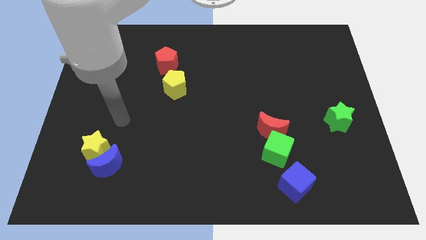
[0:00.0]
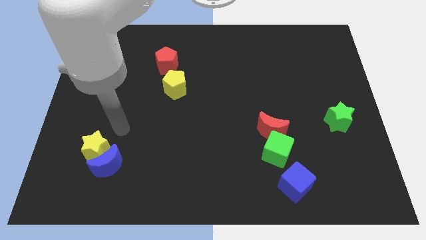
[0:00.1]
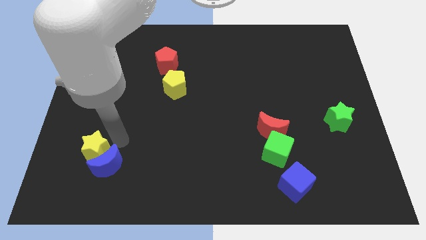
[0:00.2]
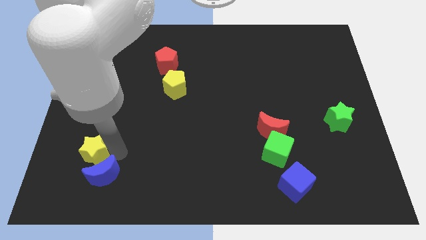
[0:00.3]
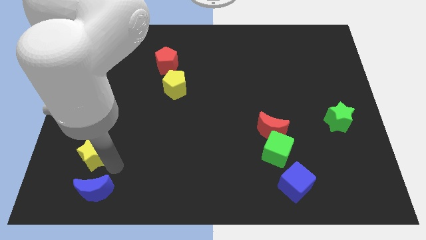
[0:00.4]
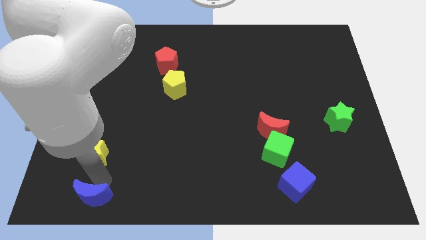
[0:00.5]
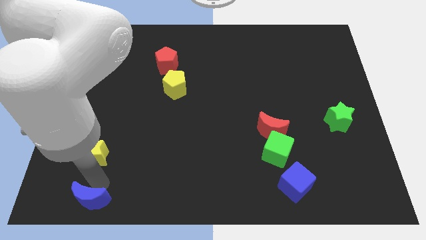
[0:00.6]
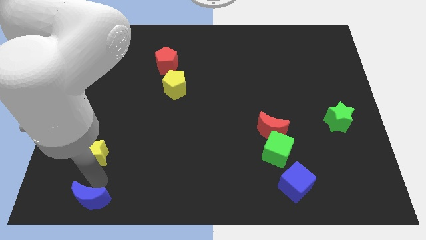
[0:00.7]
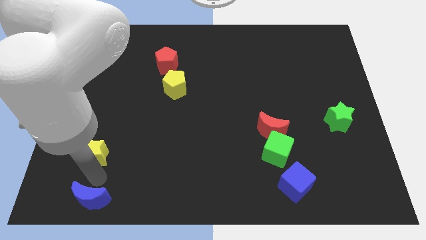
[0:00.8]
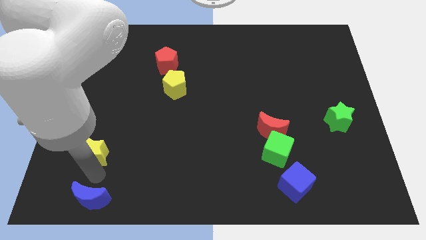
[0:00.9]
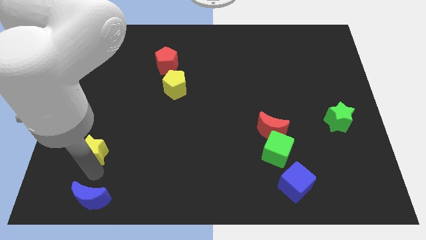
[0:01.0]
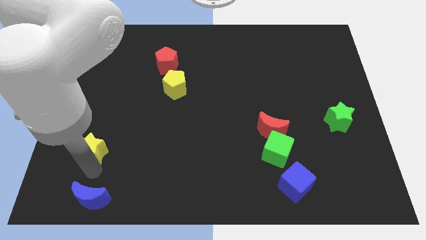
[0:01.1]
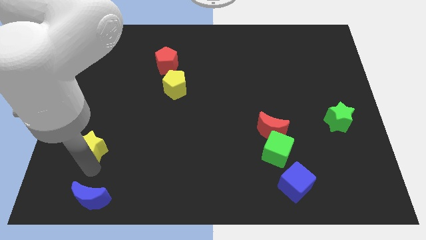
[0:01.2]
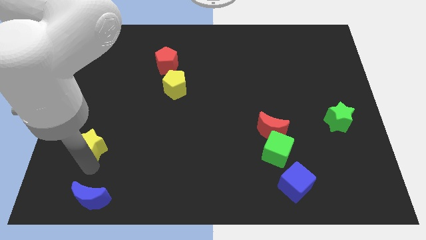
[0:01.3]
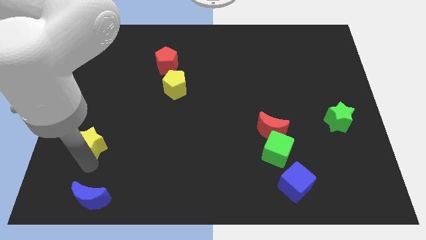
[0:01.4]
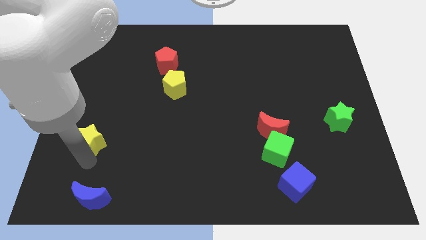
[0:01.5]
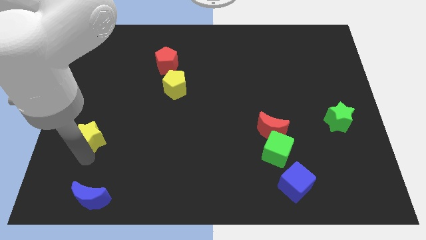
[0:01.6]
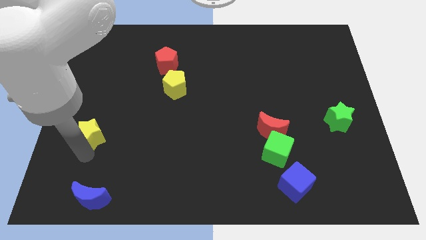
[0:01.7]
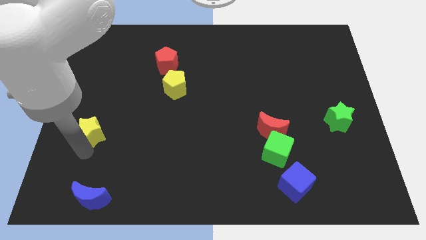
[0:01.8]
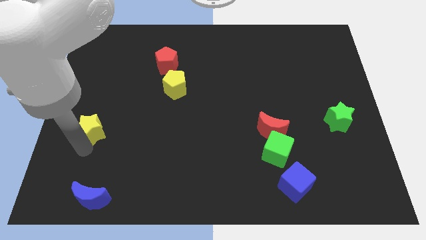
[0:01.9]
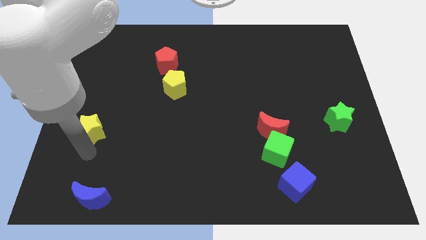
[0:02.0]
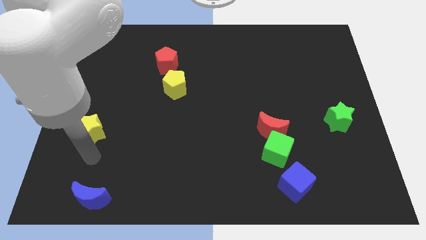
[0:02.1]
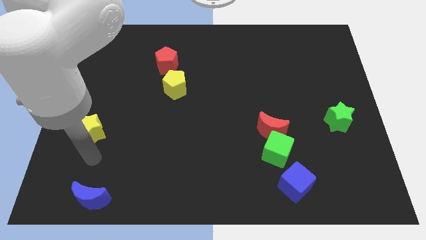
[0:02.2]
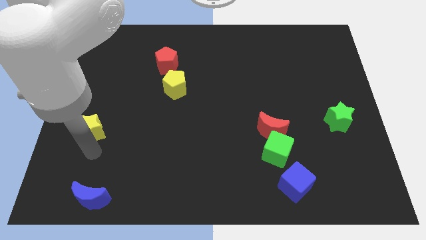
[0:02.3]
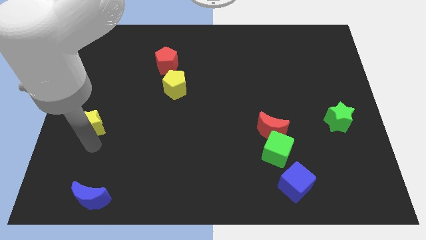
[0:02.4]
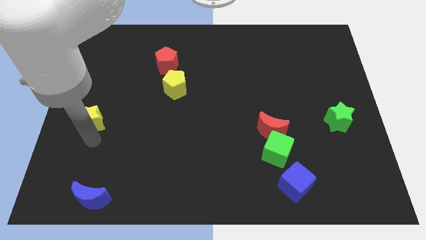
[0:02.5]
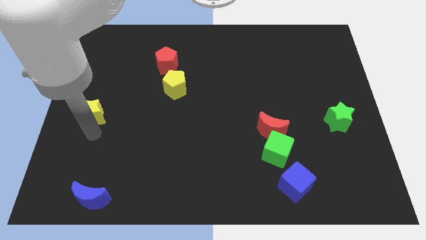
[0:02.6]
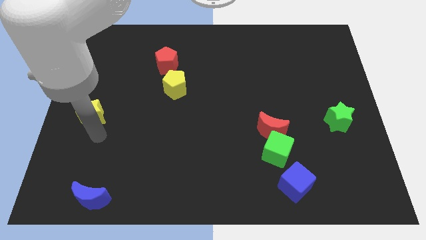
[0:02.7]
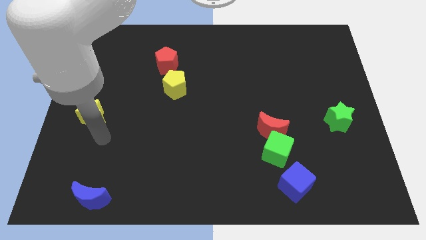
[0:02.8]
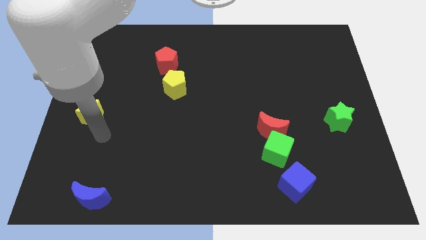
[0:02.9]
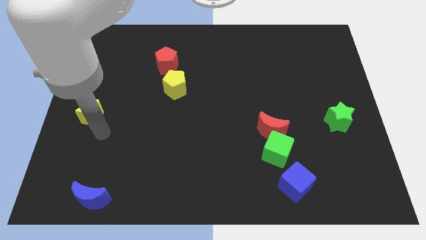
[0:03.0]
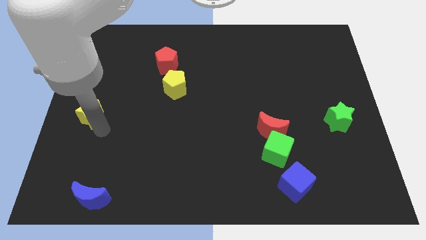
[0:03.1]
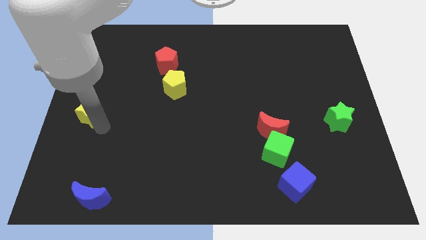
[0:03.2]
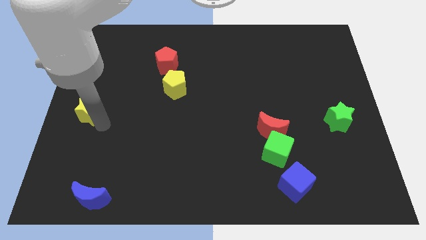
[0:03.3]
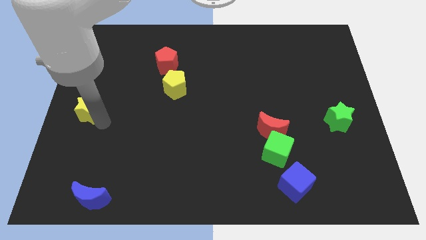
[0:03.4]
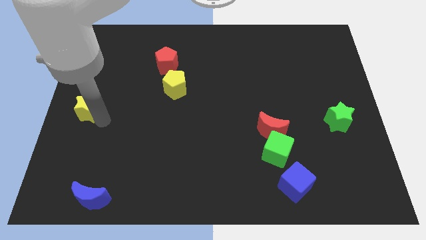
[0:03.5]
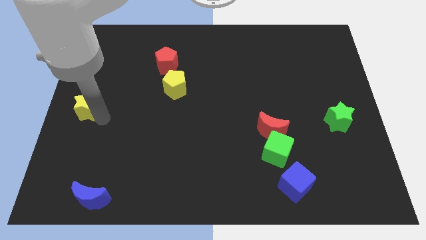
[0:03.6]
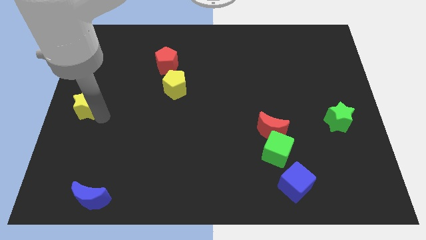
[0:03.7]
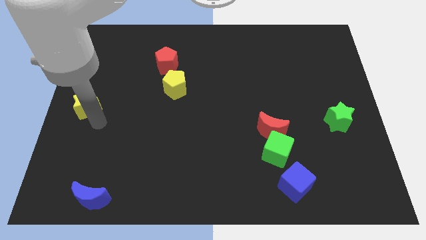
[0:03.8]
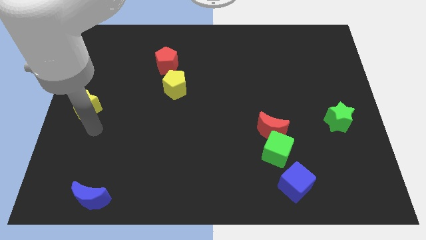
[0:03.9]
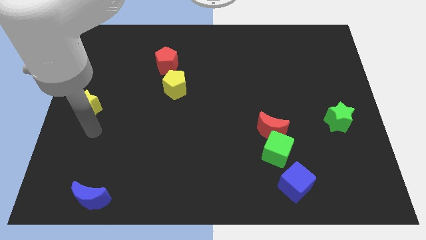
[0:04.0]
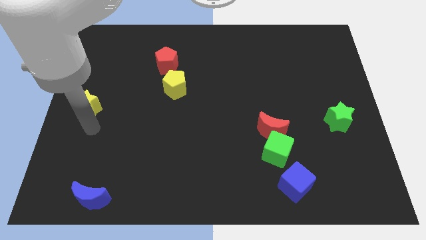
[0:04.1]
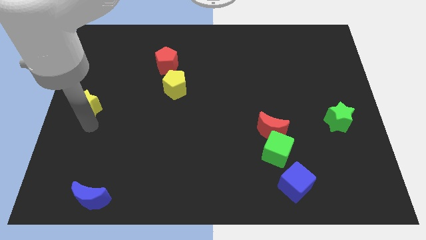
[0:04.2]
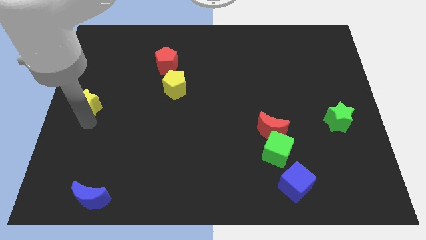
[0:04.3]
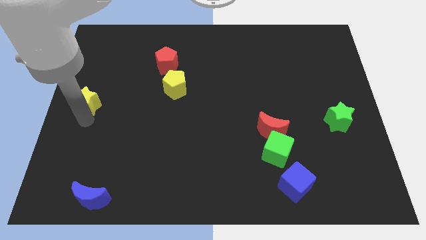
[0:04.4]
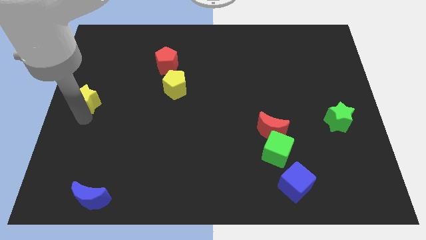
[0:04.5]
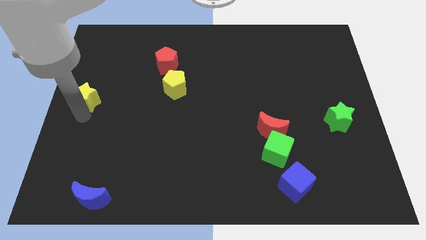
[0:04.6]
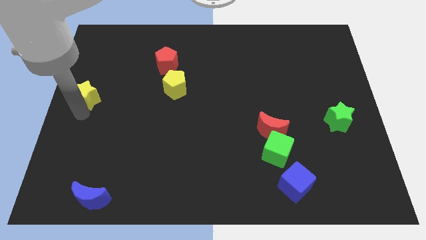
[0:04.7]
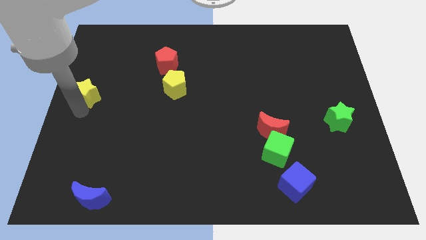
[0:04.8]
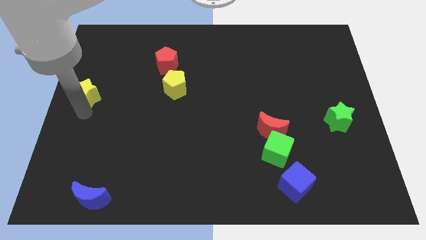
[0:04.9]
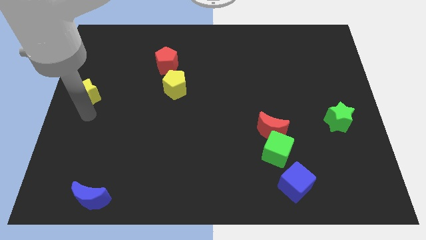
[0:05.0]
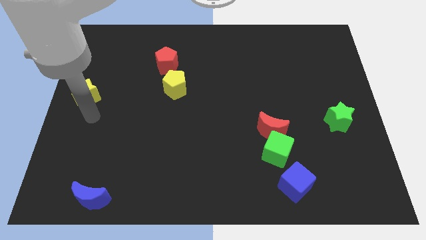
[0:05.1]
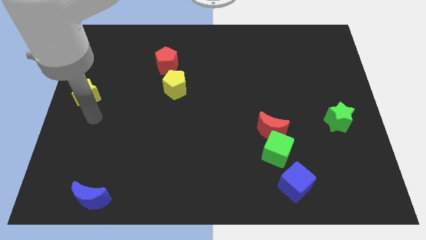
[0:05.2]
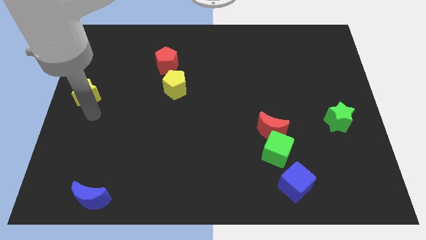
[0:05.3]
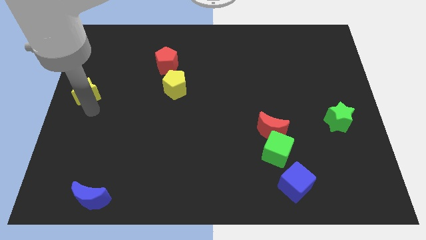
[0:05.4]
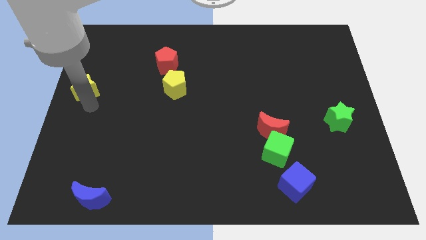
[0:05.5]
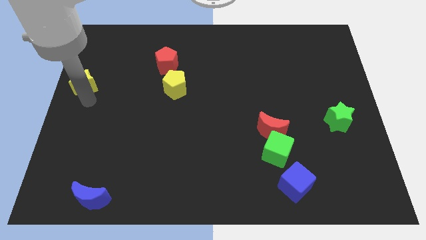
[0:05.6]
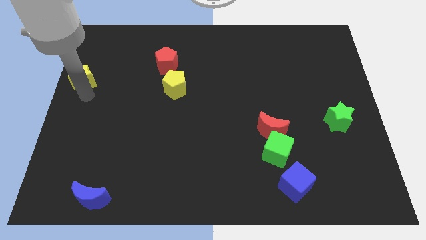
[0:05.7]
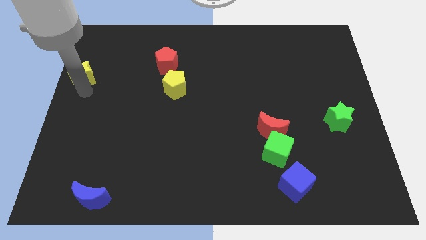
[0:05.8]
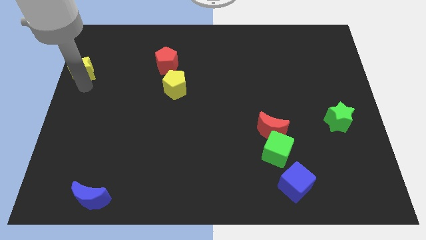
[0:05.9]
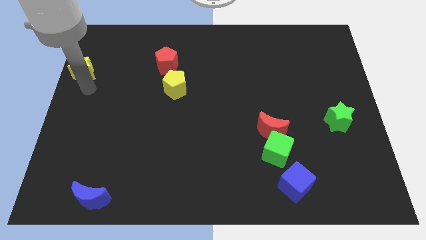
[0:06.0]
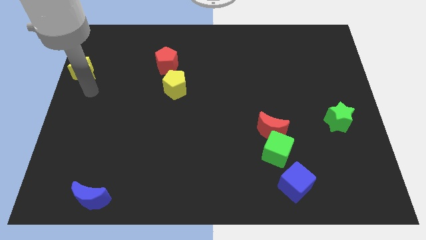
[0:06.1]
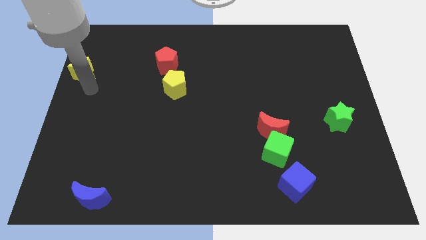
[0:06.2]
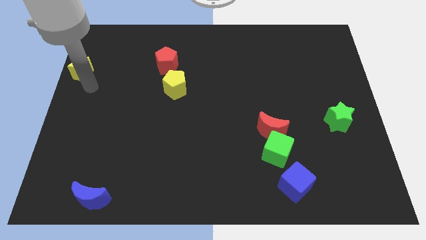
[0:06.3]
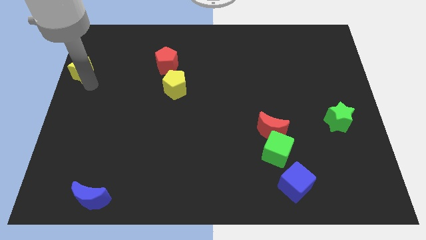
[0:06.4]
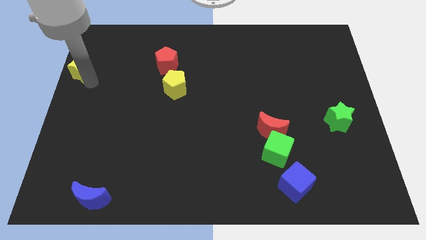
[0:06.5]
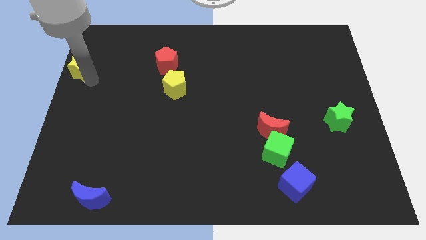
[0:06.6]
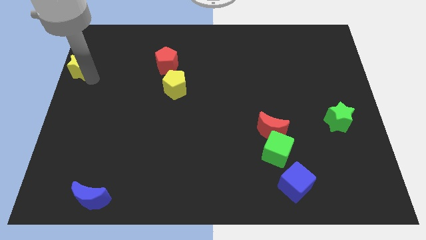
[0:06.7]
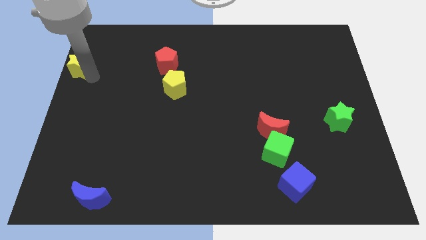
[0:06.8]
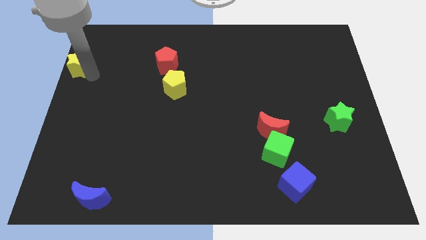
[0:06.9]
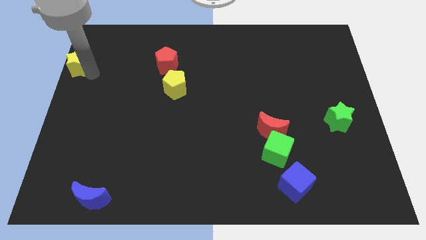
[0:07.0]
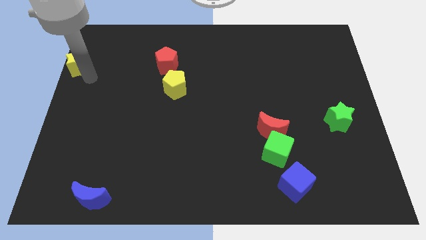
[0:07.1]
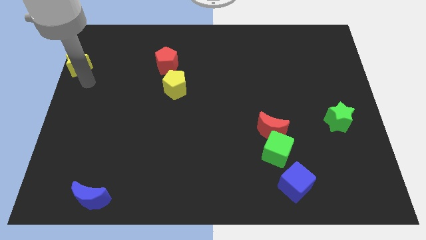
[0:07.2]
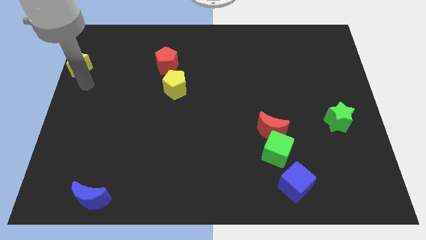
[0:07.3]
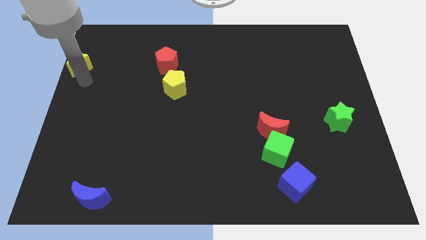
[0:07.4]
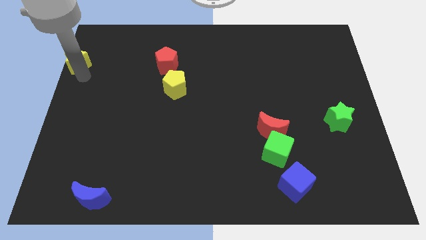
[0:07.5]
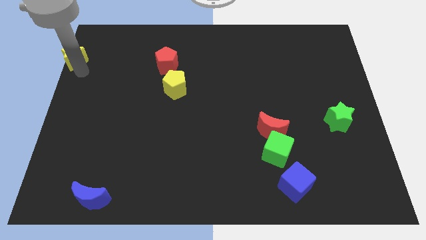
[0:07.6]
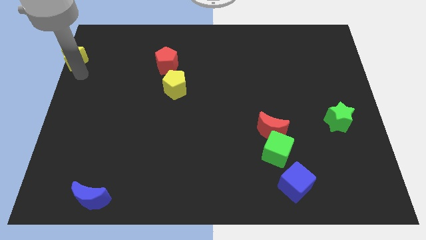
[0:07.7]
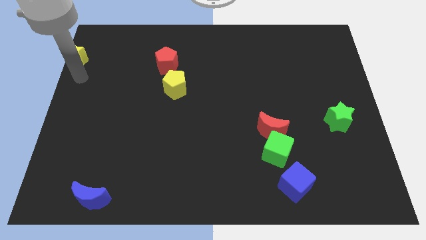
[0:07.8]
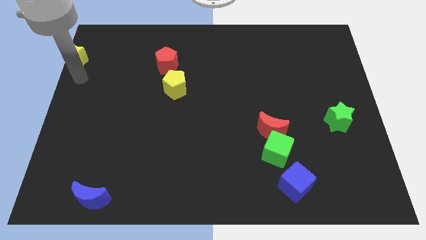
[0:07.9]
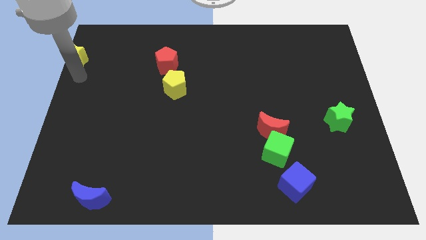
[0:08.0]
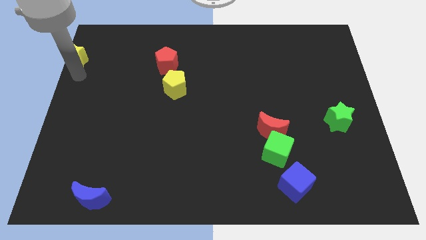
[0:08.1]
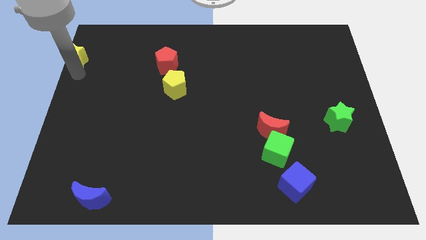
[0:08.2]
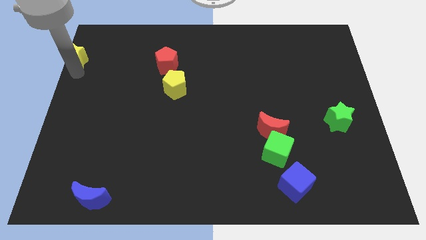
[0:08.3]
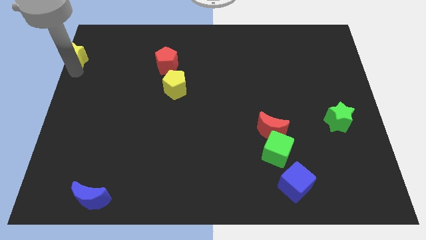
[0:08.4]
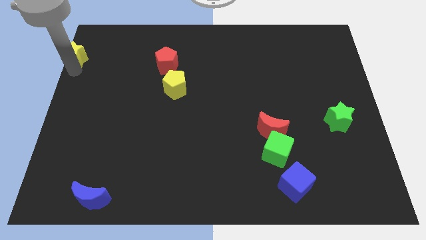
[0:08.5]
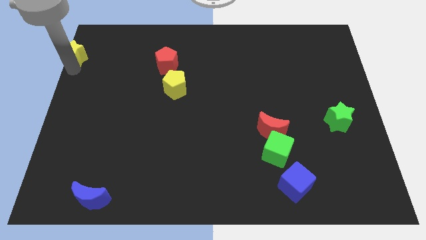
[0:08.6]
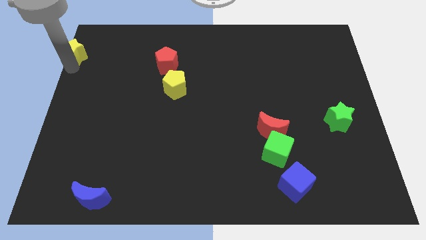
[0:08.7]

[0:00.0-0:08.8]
slide the yellow star to the top left
